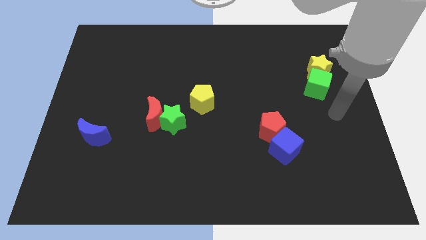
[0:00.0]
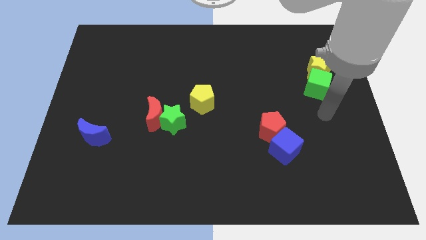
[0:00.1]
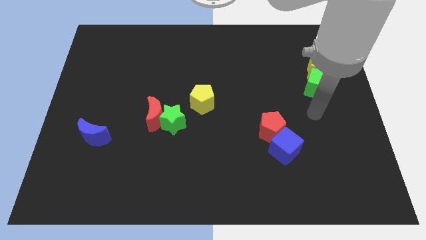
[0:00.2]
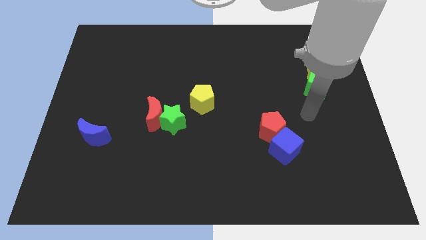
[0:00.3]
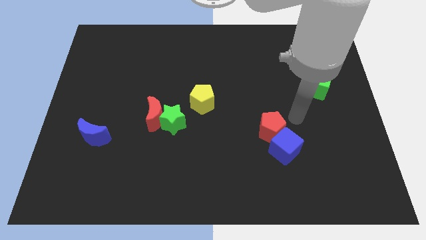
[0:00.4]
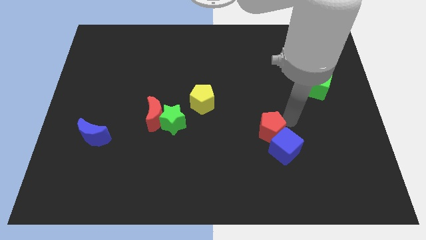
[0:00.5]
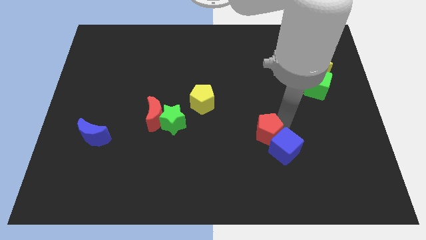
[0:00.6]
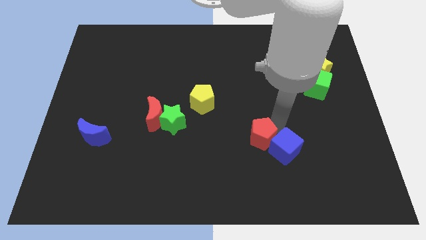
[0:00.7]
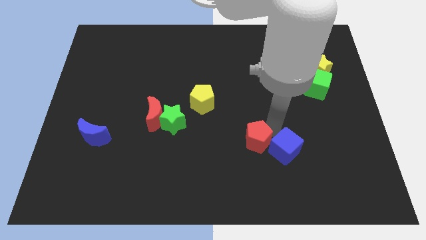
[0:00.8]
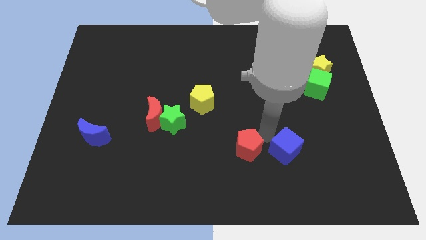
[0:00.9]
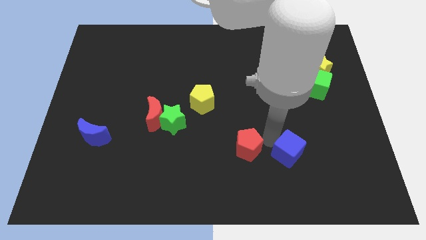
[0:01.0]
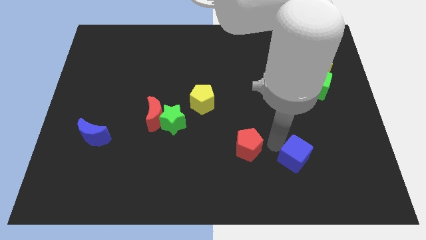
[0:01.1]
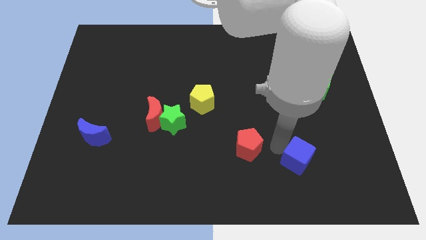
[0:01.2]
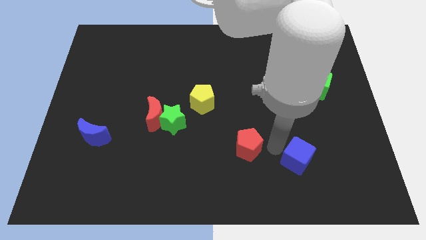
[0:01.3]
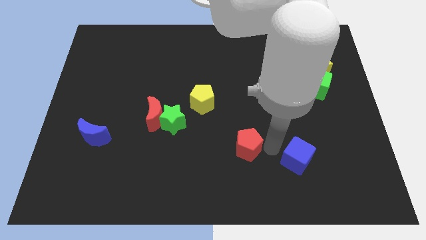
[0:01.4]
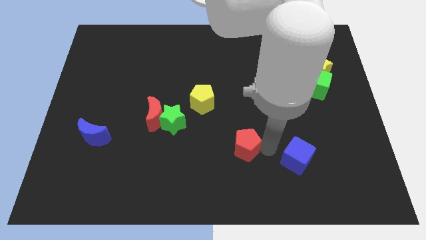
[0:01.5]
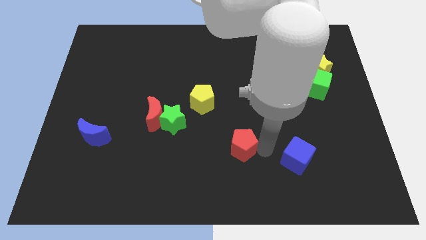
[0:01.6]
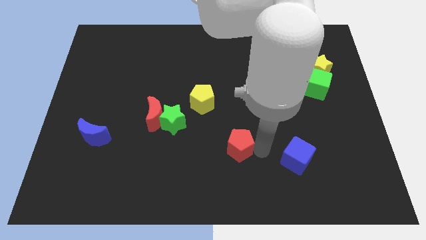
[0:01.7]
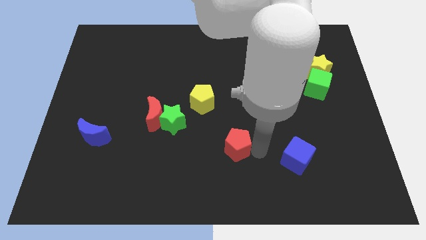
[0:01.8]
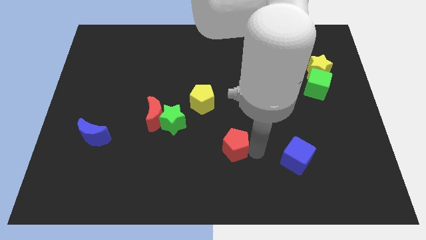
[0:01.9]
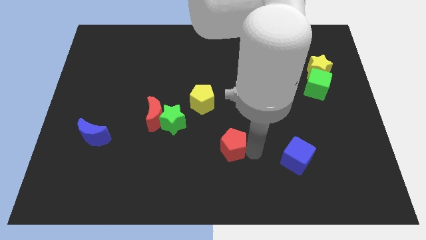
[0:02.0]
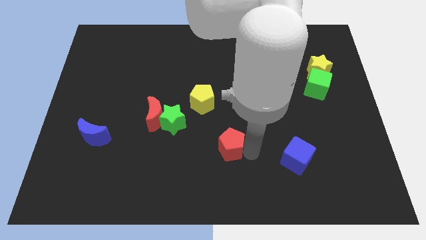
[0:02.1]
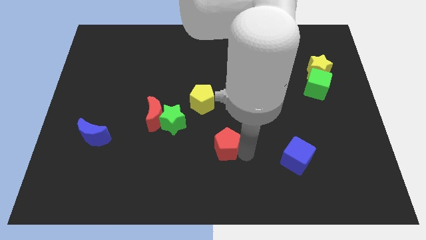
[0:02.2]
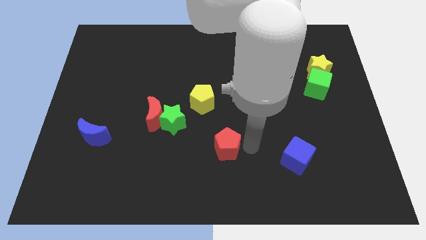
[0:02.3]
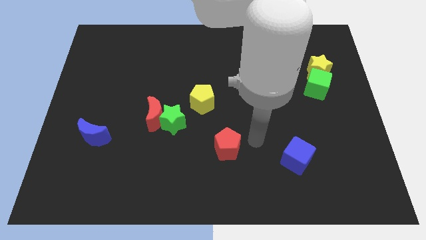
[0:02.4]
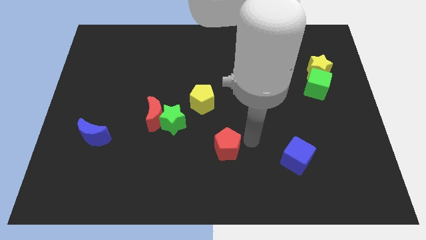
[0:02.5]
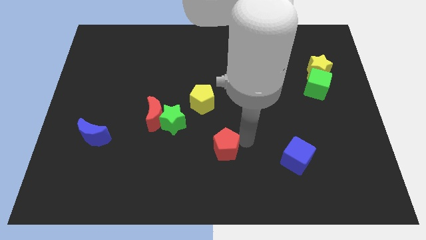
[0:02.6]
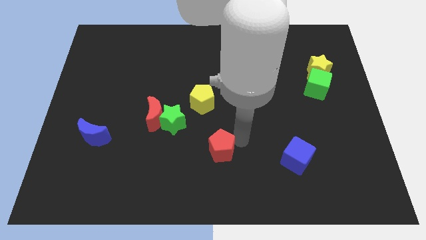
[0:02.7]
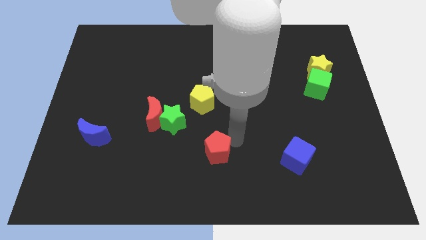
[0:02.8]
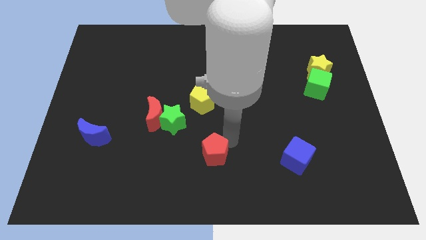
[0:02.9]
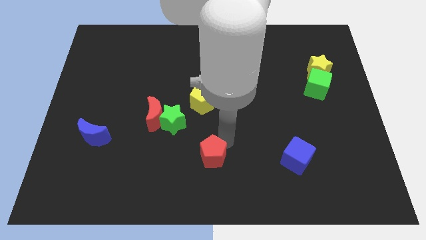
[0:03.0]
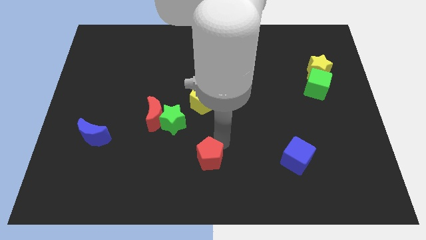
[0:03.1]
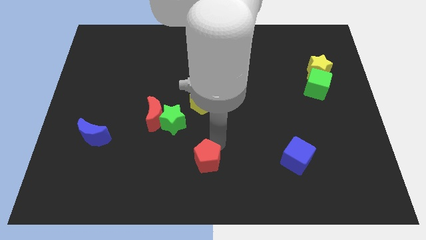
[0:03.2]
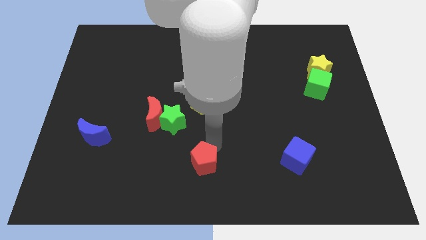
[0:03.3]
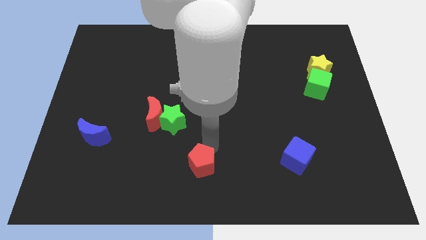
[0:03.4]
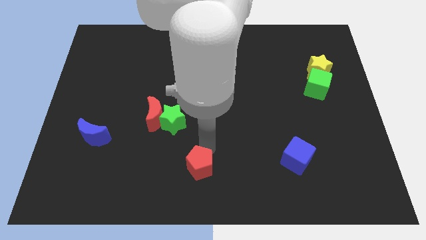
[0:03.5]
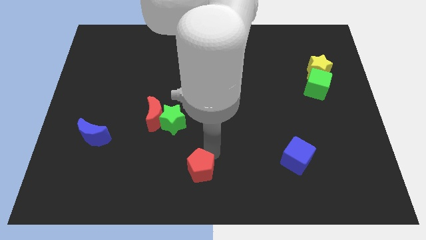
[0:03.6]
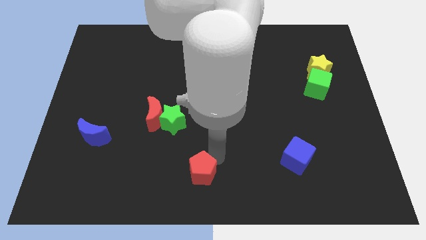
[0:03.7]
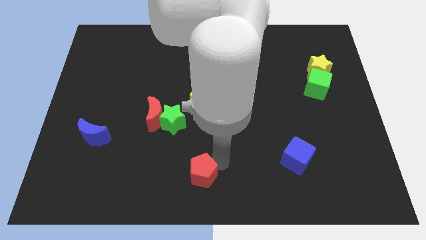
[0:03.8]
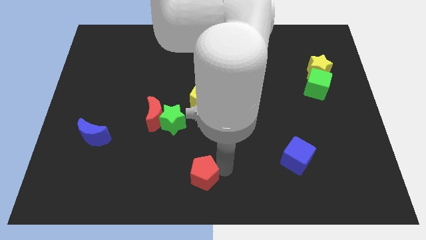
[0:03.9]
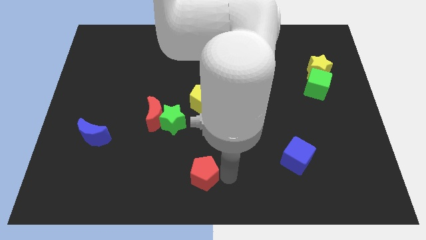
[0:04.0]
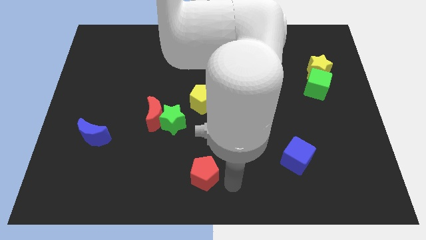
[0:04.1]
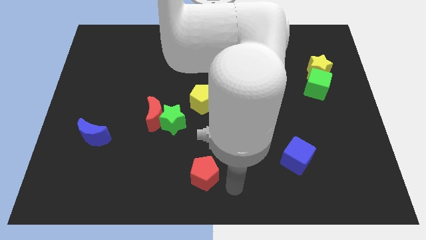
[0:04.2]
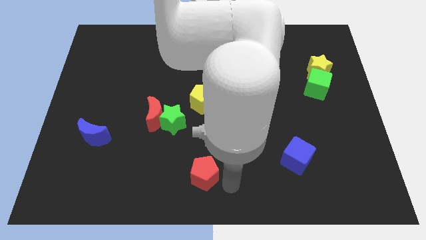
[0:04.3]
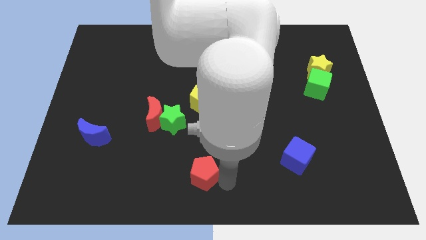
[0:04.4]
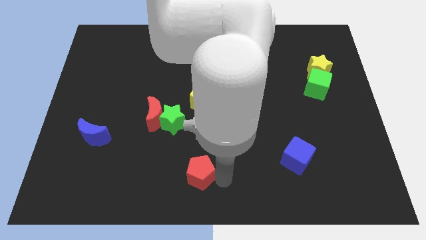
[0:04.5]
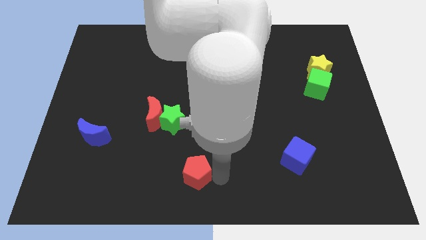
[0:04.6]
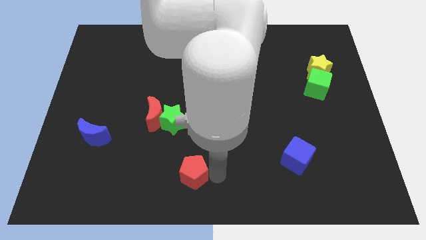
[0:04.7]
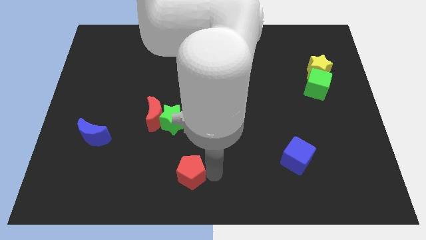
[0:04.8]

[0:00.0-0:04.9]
put the red pentagon to the bottom side of the green star

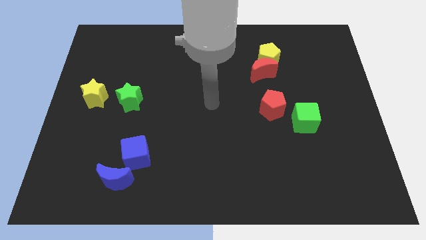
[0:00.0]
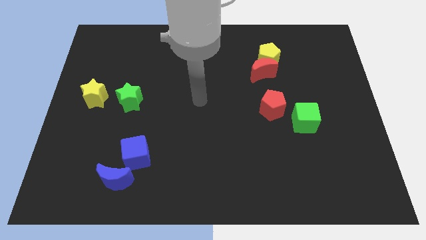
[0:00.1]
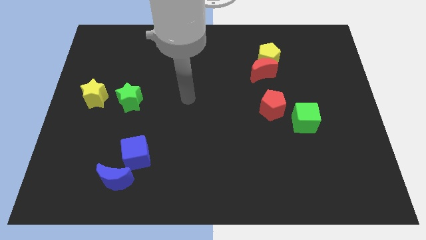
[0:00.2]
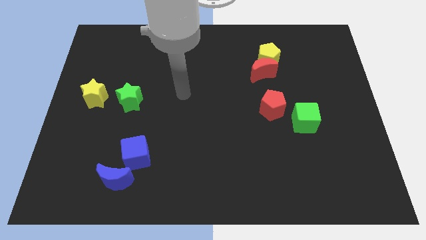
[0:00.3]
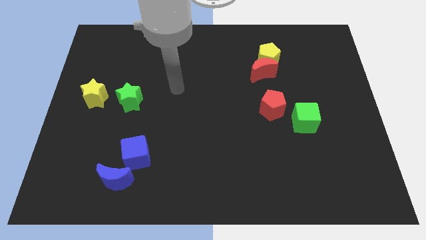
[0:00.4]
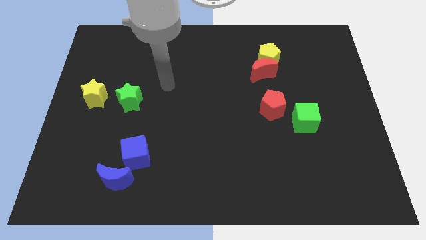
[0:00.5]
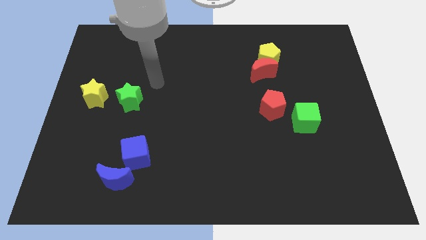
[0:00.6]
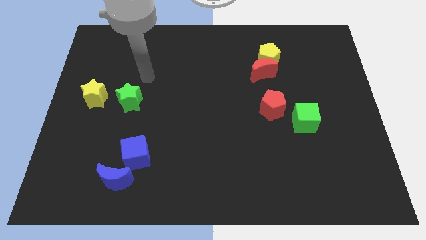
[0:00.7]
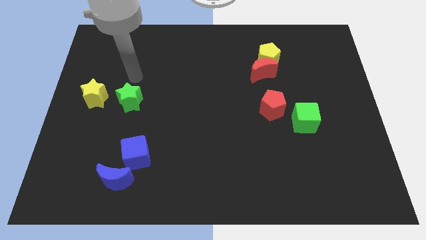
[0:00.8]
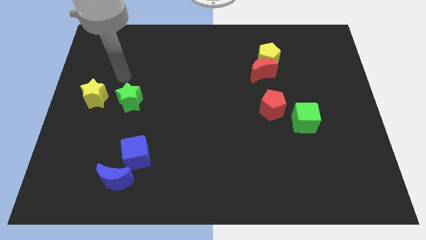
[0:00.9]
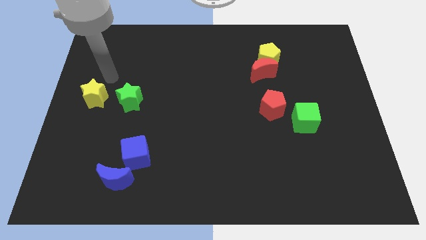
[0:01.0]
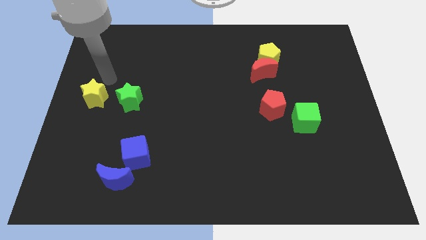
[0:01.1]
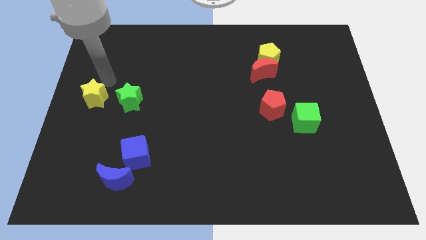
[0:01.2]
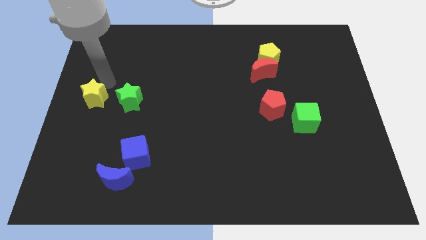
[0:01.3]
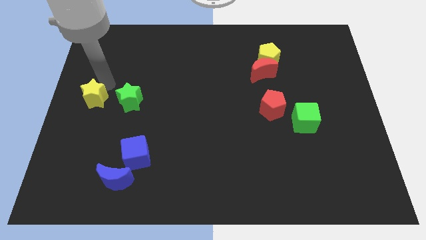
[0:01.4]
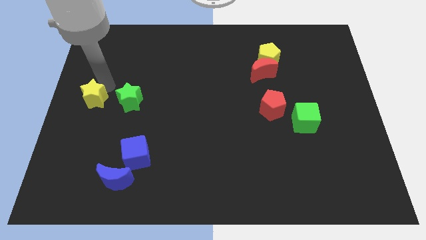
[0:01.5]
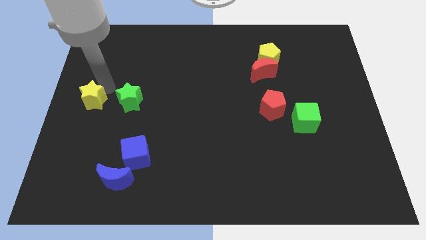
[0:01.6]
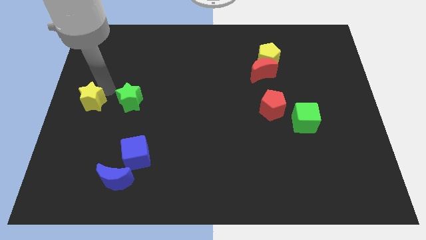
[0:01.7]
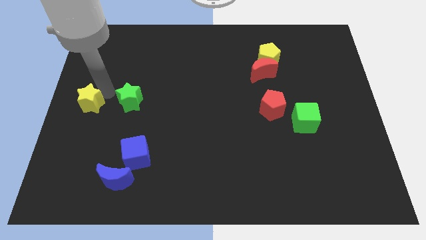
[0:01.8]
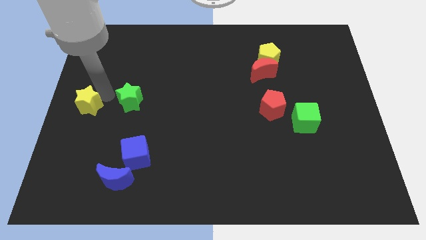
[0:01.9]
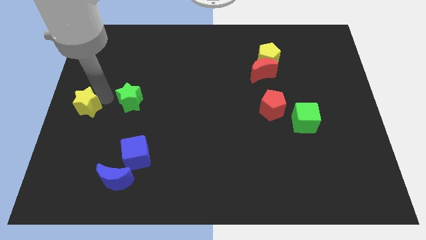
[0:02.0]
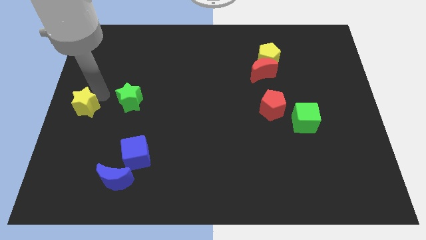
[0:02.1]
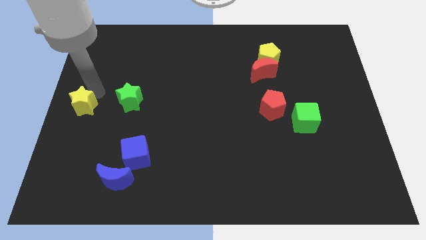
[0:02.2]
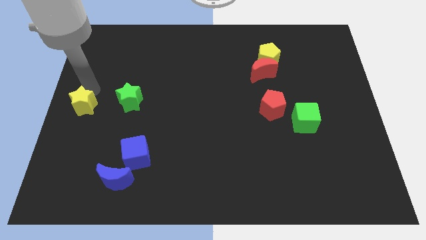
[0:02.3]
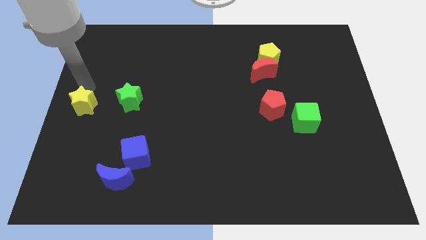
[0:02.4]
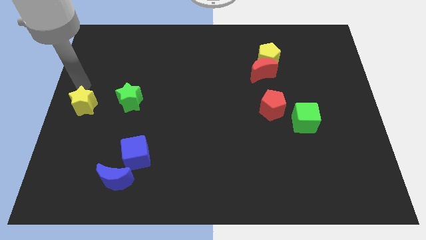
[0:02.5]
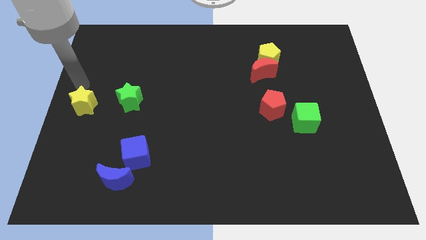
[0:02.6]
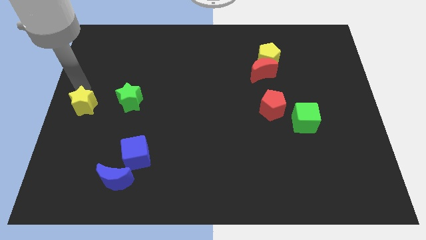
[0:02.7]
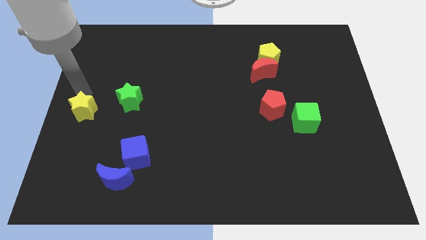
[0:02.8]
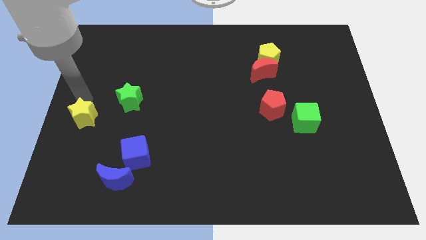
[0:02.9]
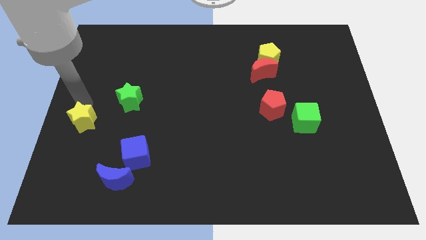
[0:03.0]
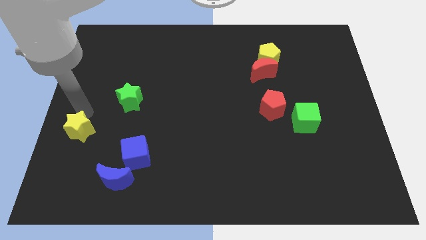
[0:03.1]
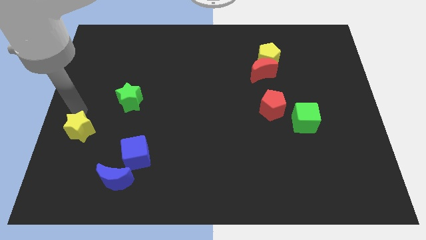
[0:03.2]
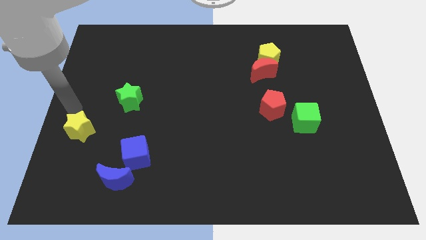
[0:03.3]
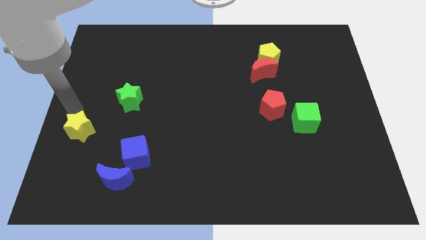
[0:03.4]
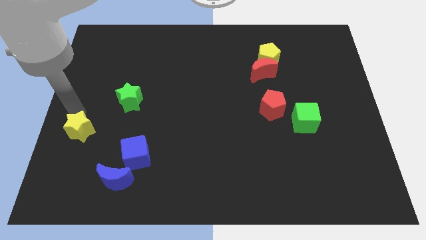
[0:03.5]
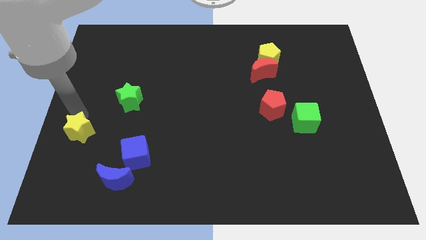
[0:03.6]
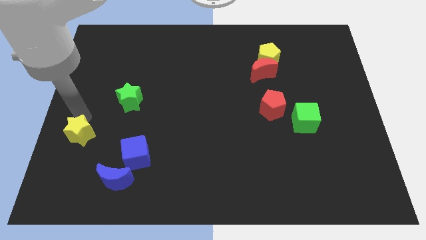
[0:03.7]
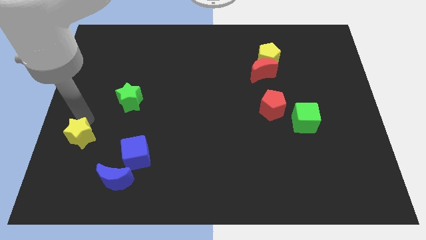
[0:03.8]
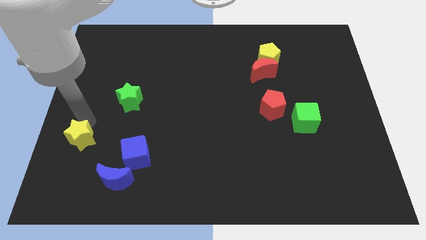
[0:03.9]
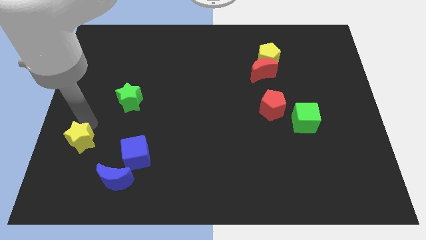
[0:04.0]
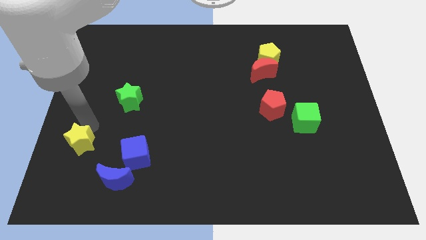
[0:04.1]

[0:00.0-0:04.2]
move the yellow star to the top left side of the blue moon
